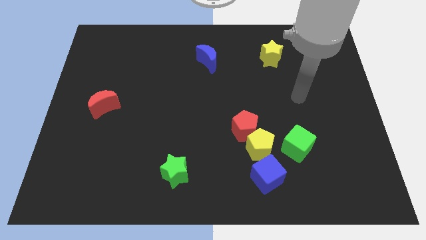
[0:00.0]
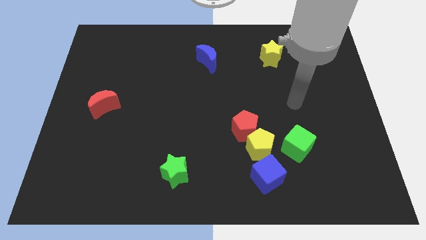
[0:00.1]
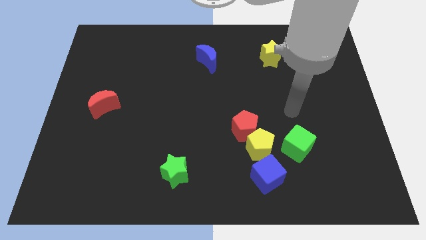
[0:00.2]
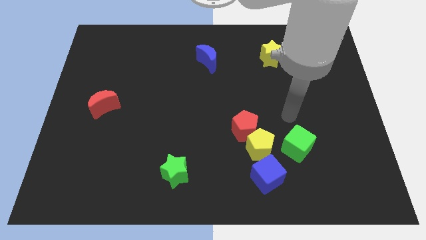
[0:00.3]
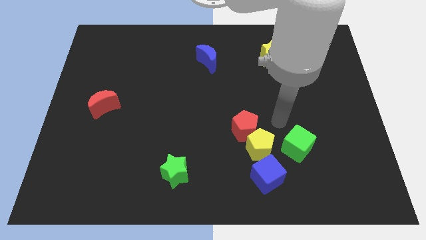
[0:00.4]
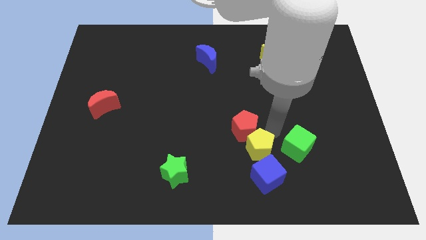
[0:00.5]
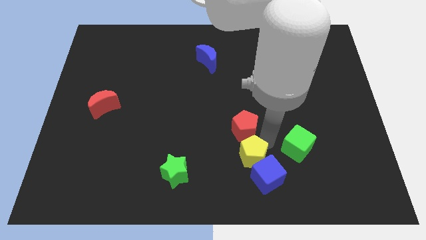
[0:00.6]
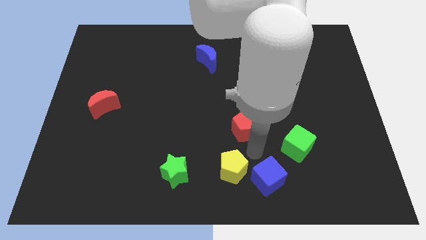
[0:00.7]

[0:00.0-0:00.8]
separate the red pentagon from the yellow pentagon

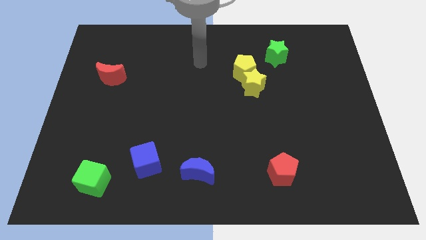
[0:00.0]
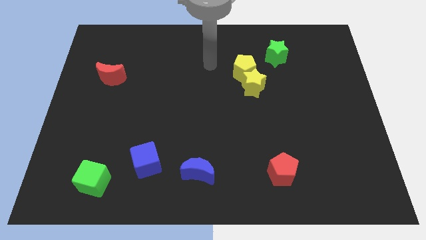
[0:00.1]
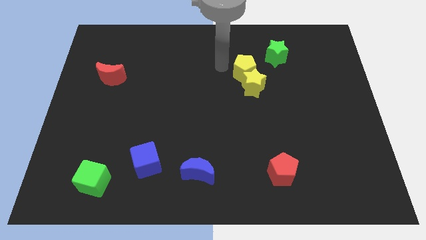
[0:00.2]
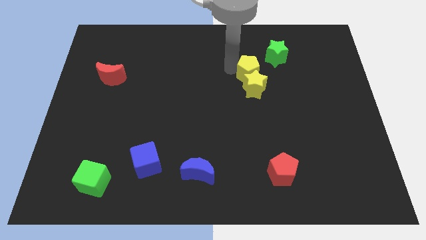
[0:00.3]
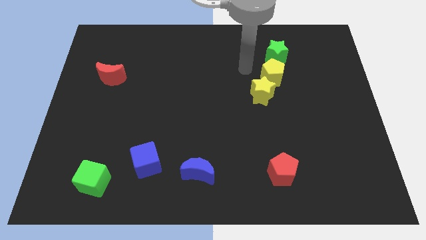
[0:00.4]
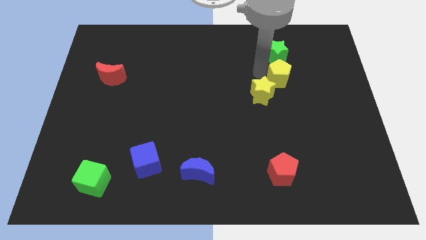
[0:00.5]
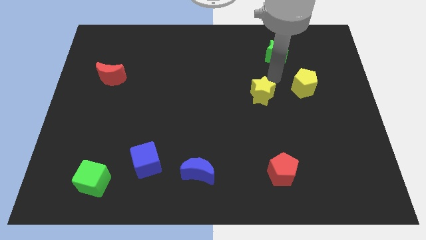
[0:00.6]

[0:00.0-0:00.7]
pull the yellow star apart from the yellow pentagon

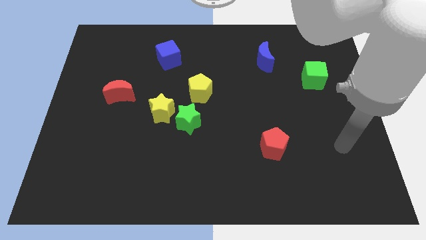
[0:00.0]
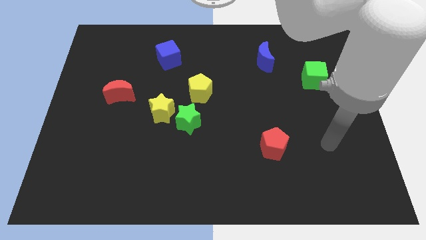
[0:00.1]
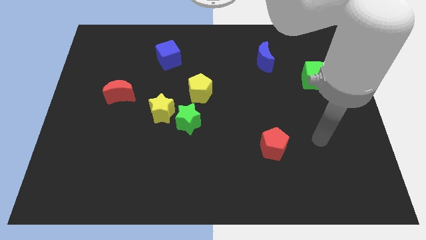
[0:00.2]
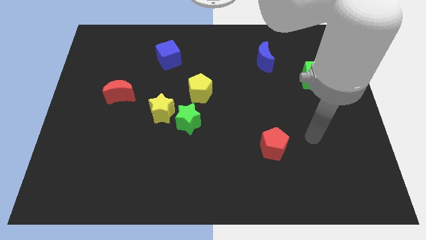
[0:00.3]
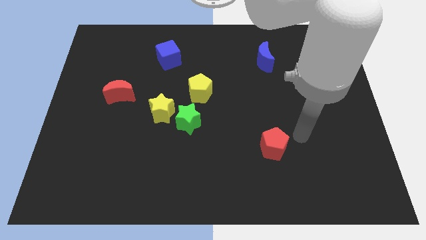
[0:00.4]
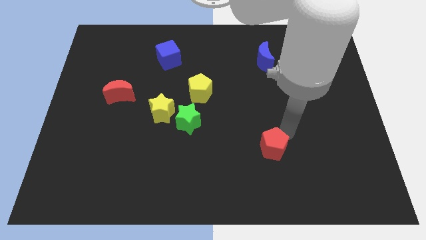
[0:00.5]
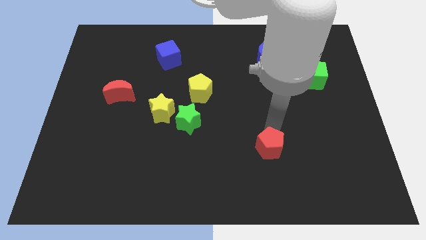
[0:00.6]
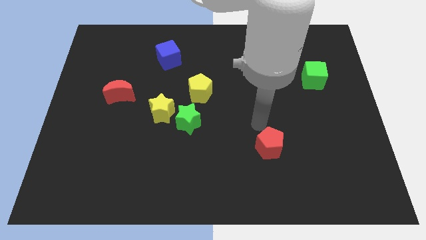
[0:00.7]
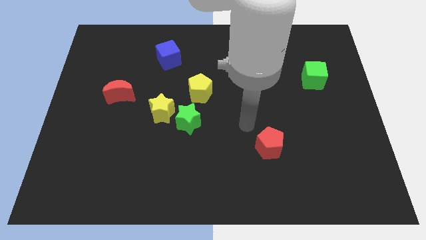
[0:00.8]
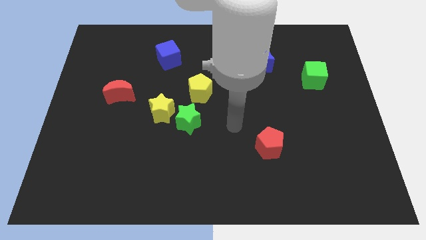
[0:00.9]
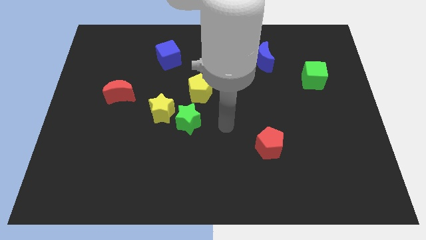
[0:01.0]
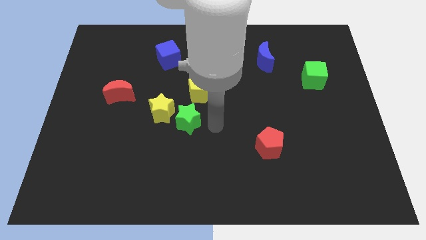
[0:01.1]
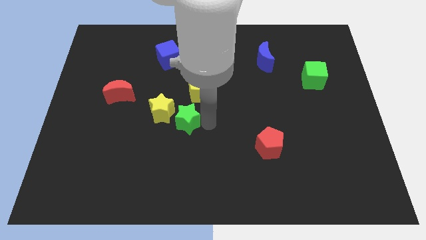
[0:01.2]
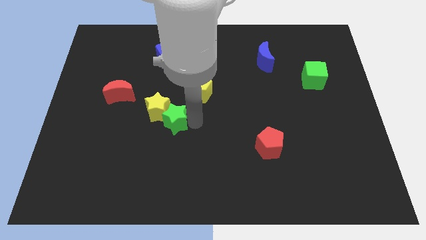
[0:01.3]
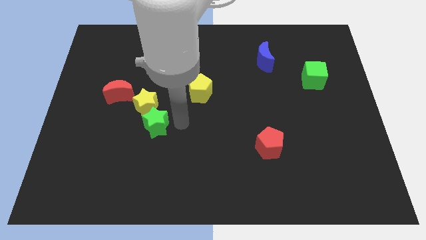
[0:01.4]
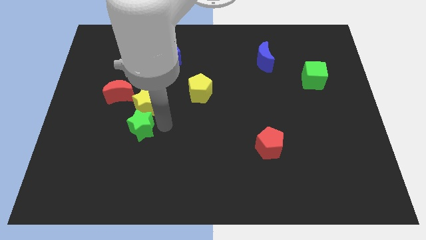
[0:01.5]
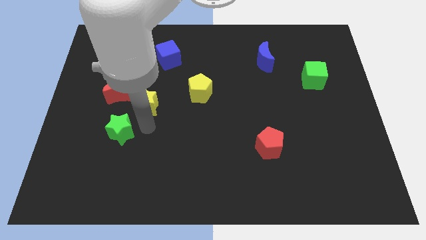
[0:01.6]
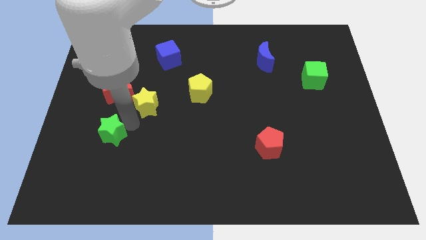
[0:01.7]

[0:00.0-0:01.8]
pull the yellow star apart from the green star

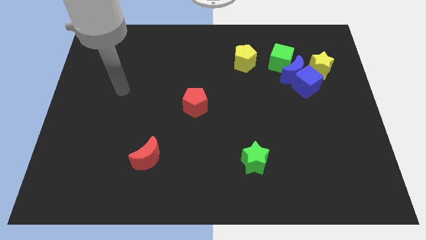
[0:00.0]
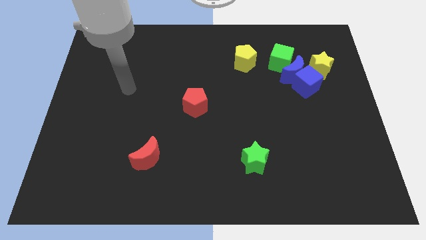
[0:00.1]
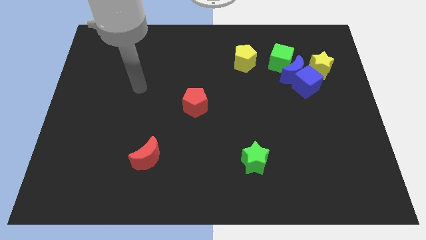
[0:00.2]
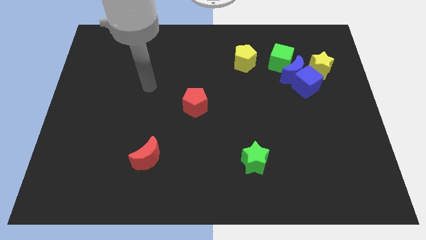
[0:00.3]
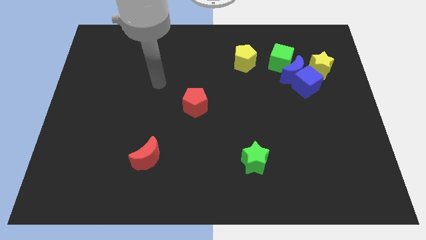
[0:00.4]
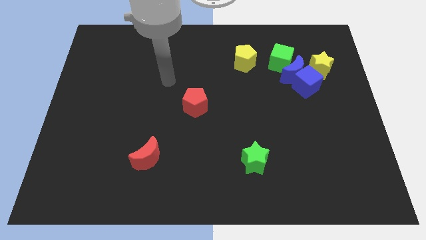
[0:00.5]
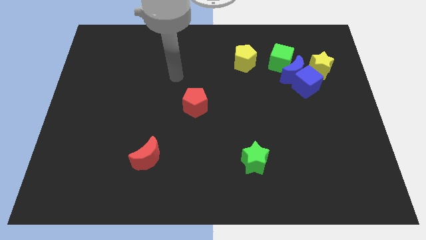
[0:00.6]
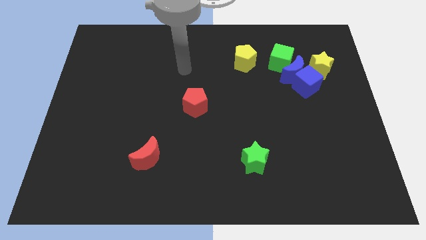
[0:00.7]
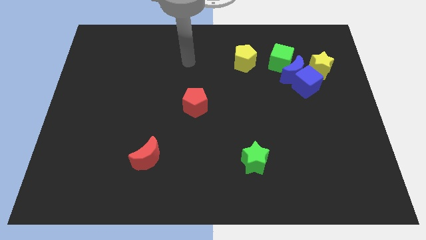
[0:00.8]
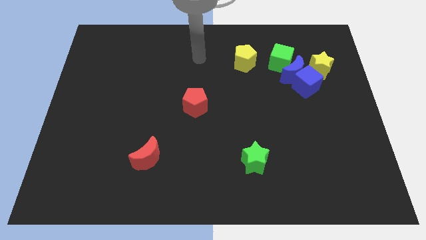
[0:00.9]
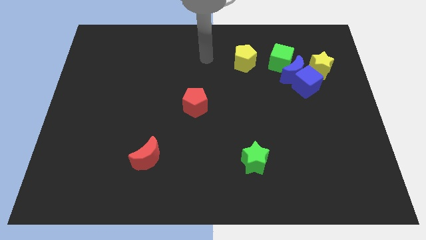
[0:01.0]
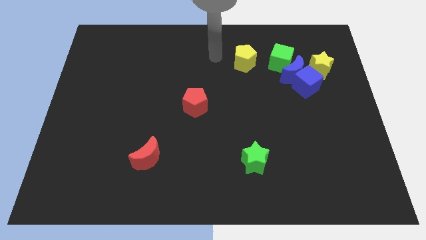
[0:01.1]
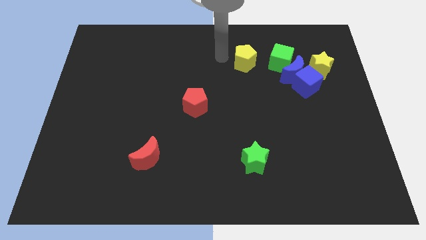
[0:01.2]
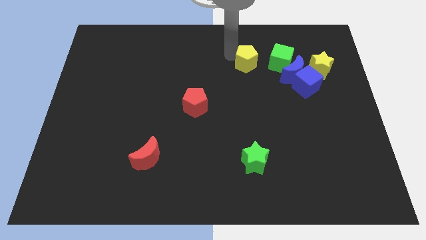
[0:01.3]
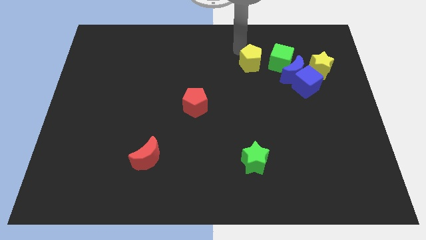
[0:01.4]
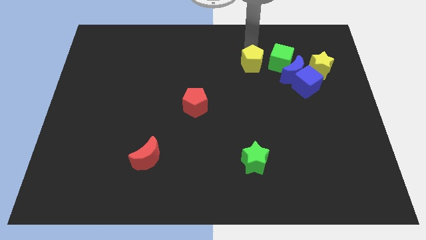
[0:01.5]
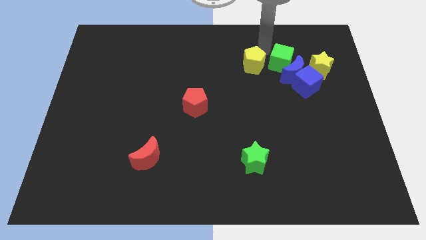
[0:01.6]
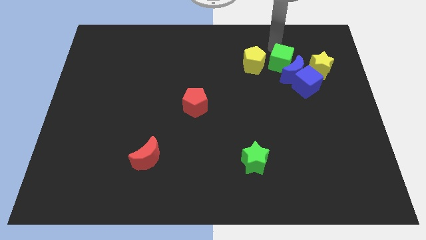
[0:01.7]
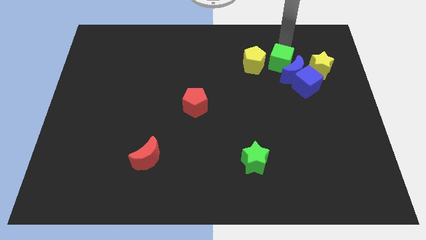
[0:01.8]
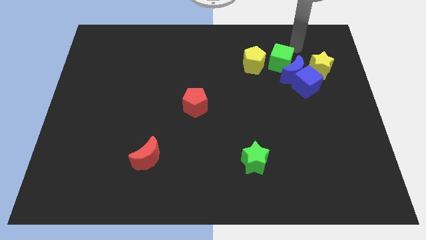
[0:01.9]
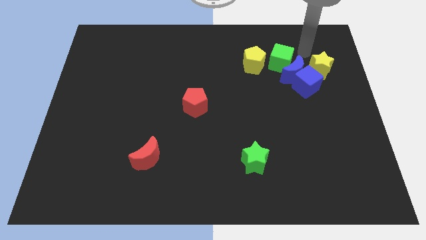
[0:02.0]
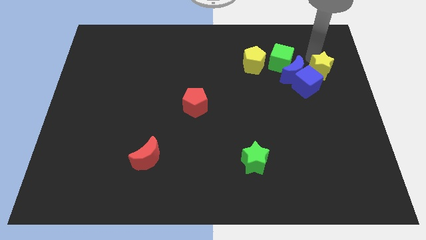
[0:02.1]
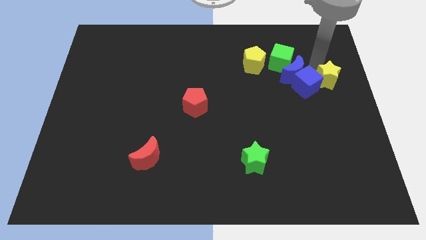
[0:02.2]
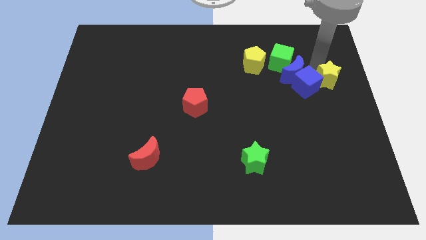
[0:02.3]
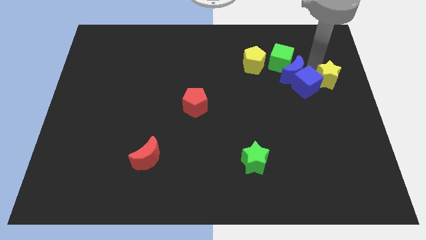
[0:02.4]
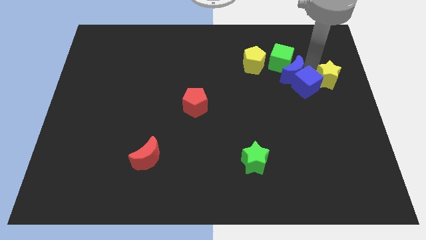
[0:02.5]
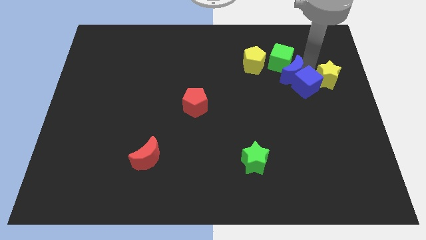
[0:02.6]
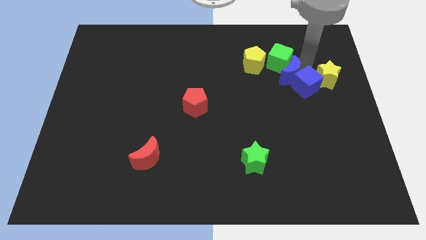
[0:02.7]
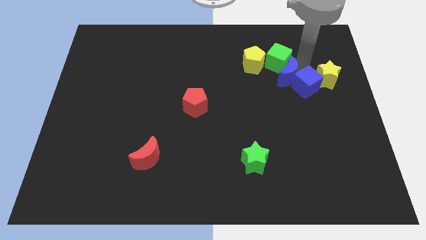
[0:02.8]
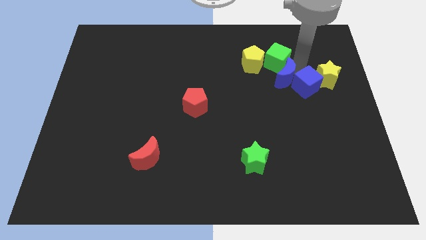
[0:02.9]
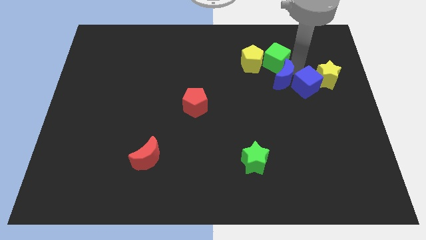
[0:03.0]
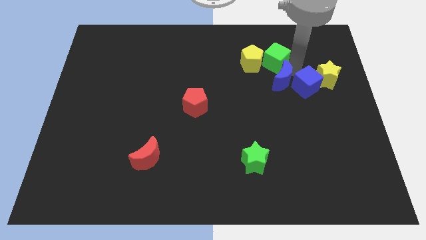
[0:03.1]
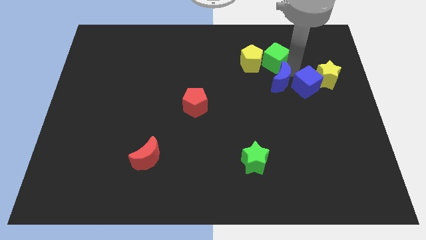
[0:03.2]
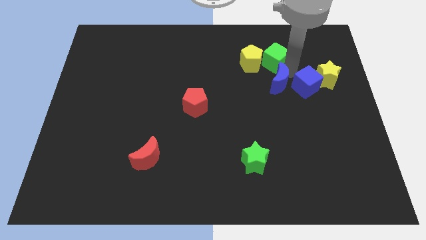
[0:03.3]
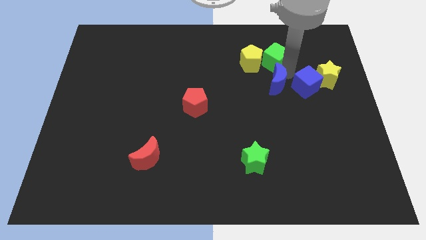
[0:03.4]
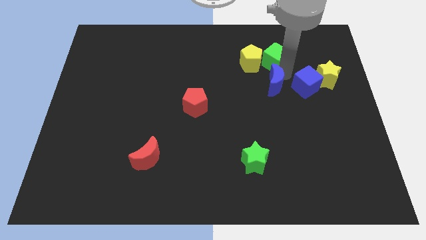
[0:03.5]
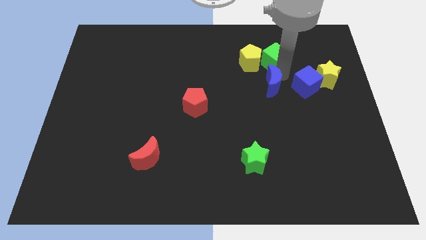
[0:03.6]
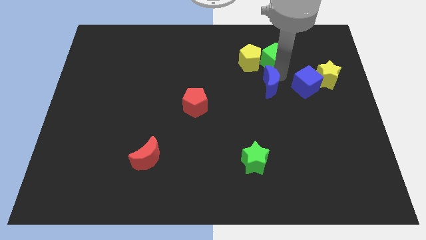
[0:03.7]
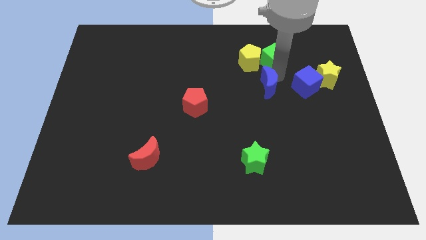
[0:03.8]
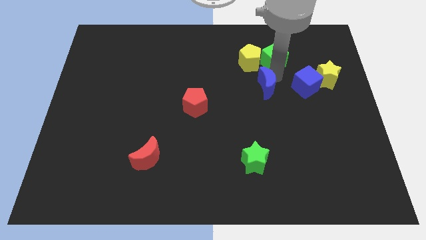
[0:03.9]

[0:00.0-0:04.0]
separate the blue moon from the clump

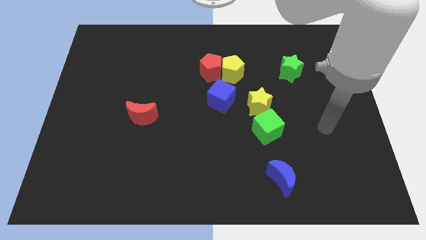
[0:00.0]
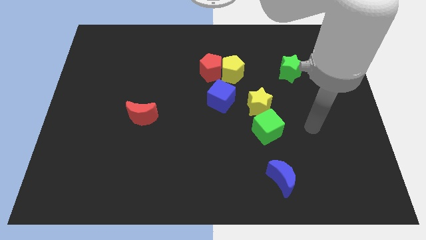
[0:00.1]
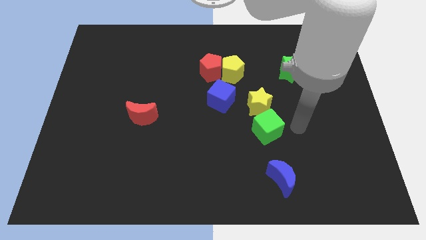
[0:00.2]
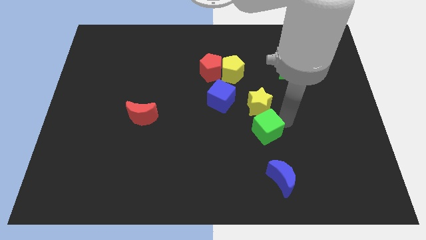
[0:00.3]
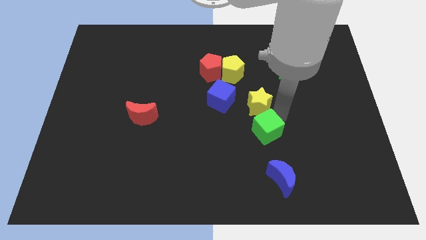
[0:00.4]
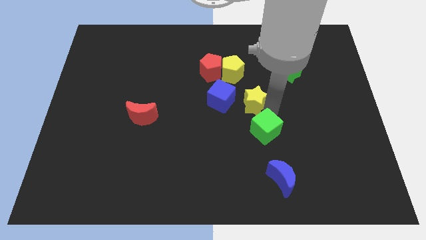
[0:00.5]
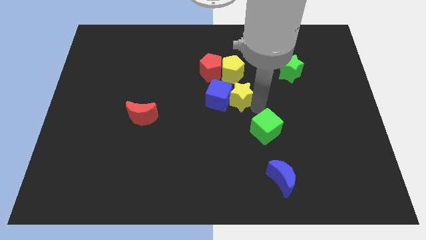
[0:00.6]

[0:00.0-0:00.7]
separate the green cube from the yellow star

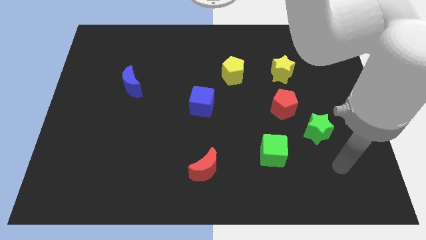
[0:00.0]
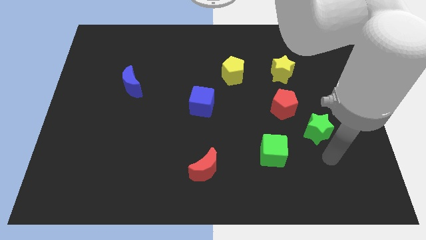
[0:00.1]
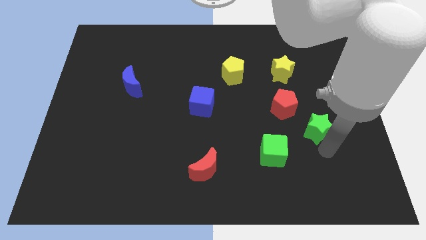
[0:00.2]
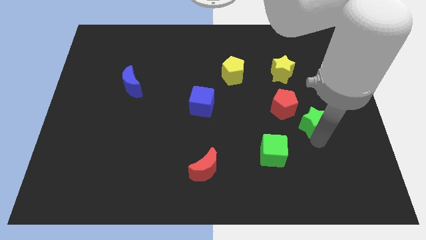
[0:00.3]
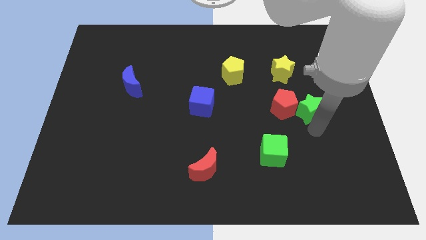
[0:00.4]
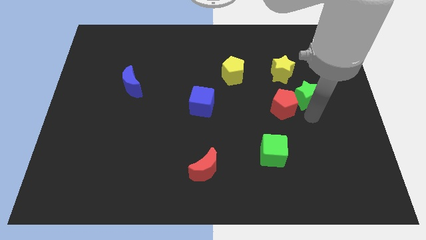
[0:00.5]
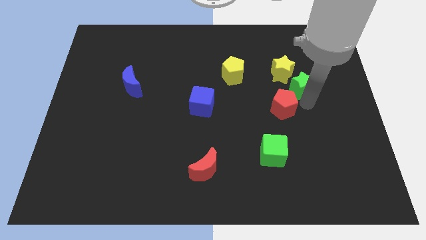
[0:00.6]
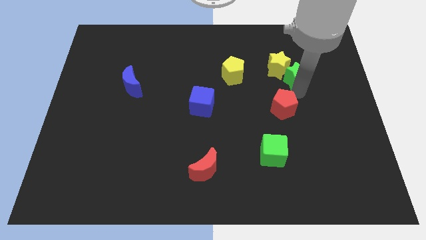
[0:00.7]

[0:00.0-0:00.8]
separate the red pentagon from the green star

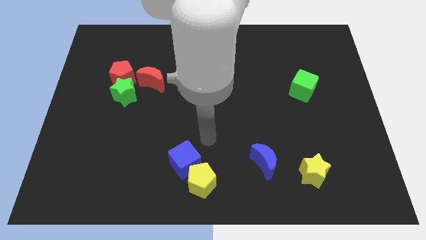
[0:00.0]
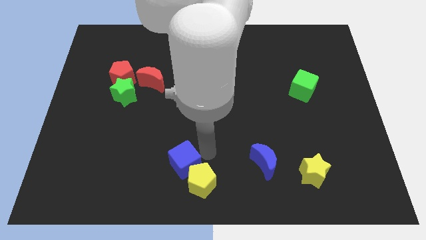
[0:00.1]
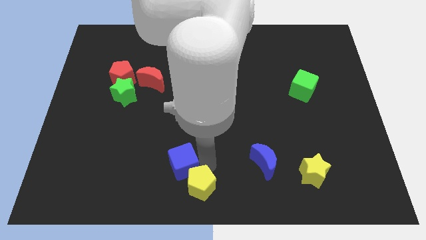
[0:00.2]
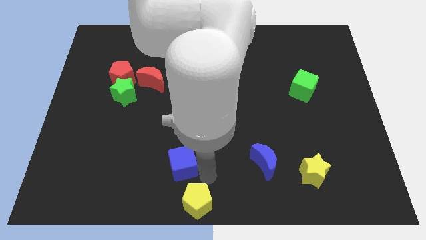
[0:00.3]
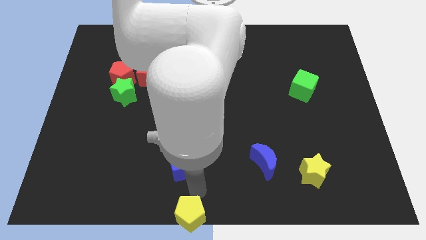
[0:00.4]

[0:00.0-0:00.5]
pull the blue cube apart from the yellow pentagon
